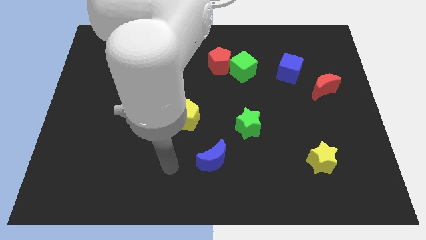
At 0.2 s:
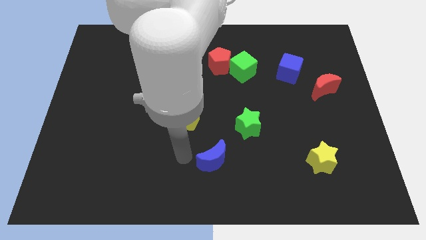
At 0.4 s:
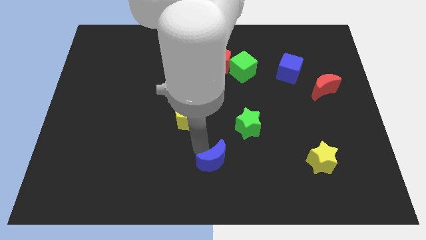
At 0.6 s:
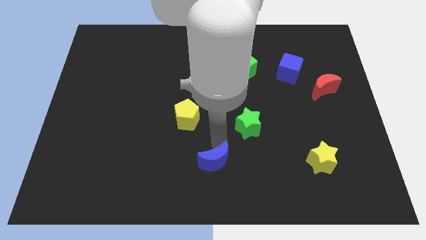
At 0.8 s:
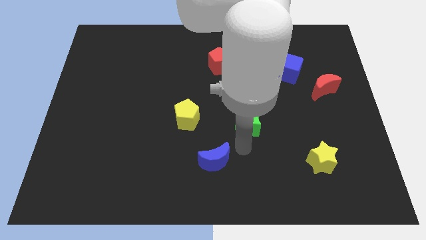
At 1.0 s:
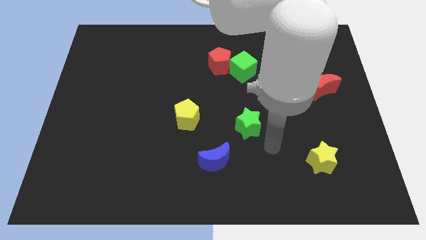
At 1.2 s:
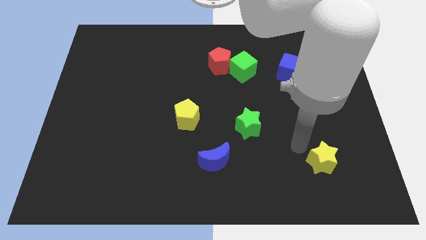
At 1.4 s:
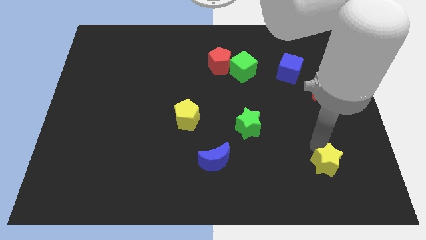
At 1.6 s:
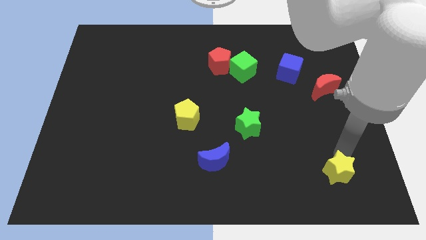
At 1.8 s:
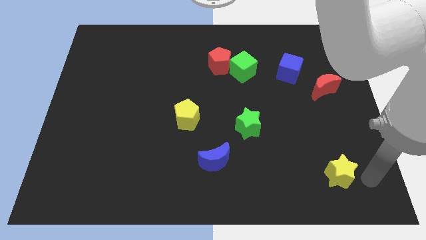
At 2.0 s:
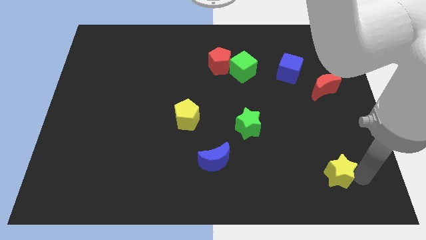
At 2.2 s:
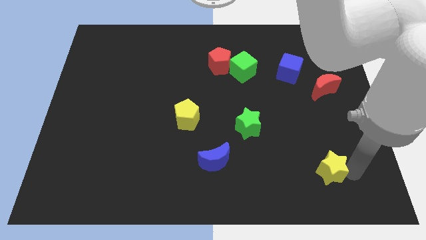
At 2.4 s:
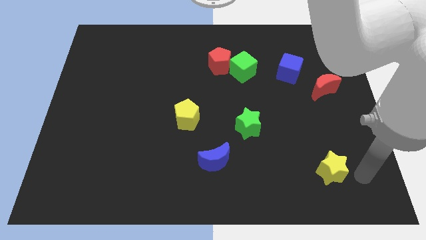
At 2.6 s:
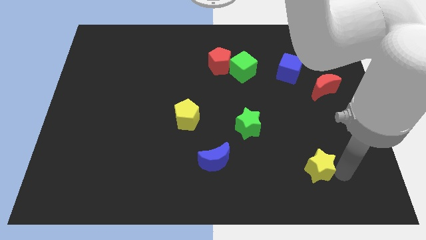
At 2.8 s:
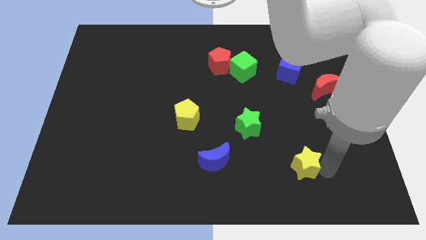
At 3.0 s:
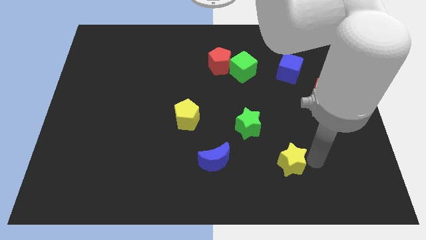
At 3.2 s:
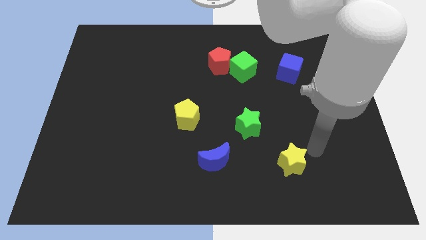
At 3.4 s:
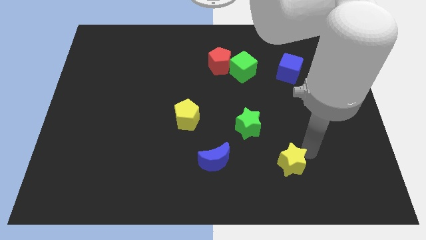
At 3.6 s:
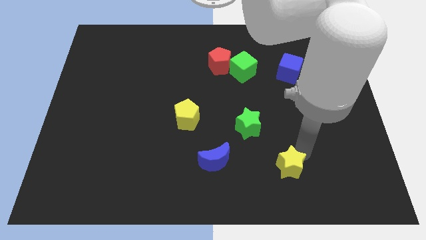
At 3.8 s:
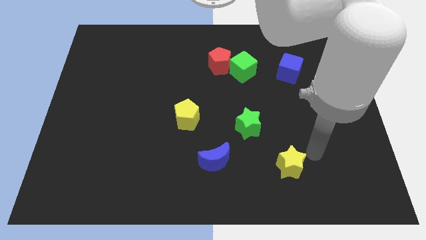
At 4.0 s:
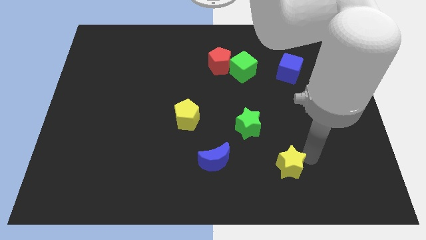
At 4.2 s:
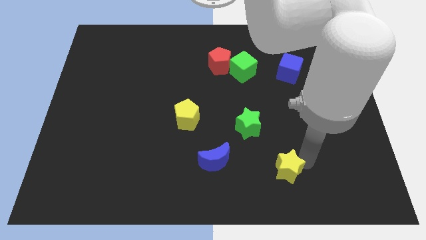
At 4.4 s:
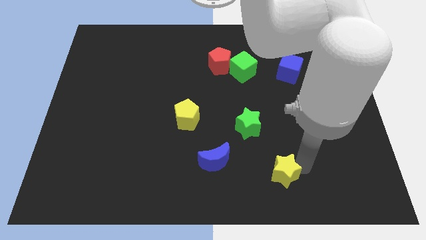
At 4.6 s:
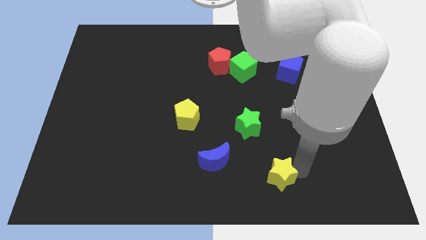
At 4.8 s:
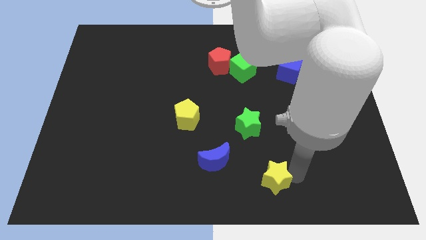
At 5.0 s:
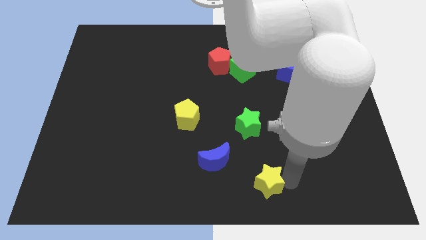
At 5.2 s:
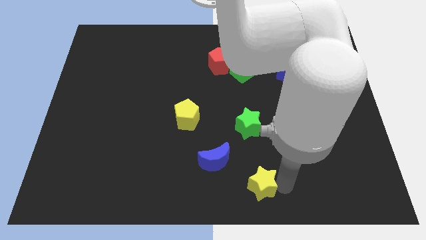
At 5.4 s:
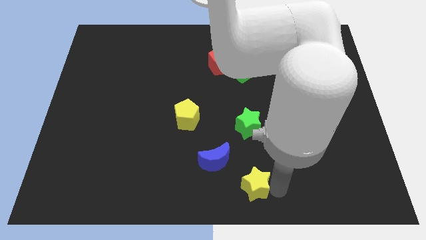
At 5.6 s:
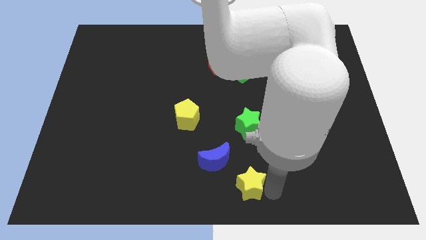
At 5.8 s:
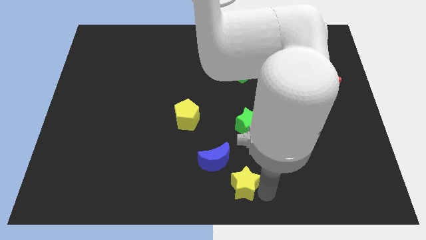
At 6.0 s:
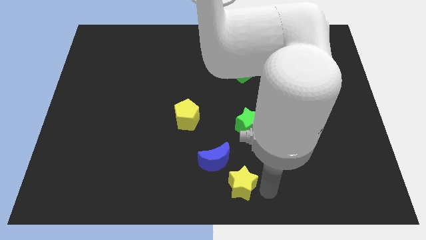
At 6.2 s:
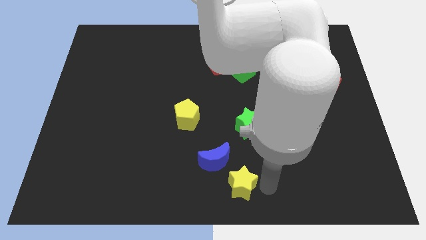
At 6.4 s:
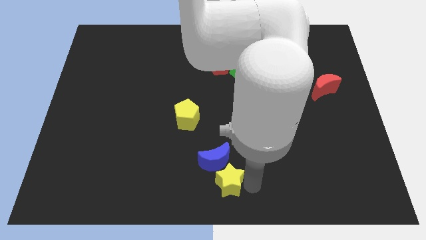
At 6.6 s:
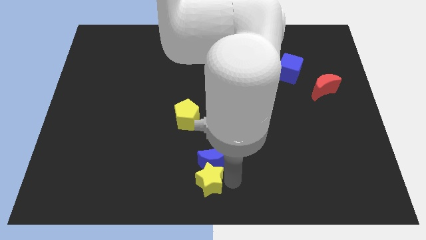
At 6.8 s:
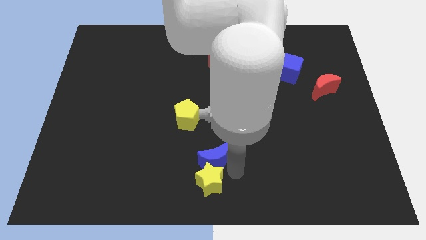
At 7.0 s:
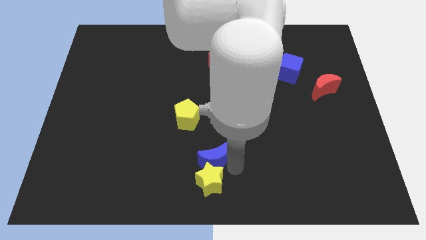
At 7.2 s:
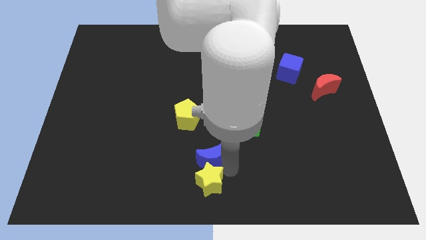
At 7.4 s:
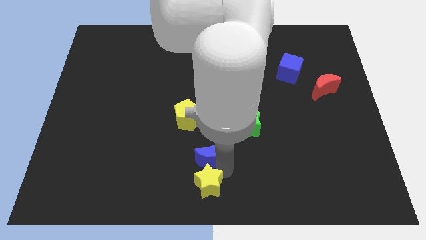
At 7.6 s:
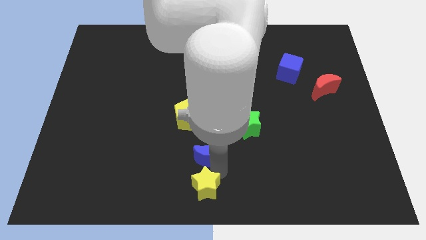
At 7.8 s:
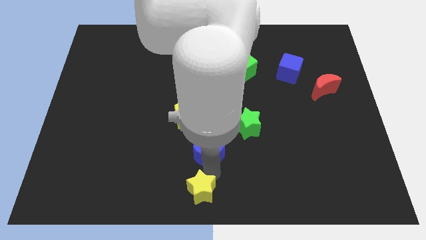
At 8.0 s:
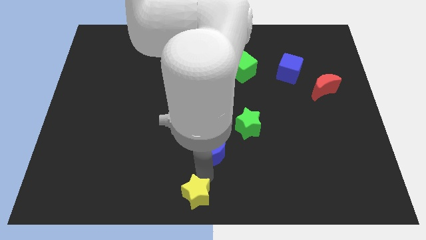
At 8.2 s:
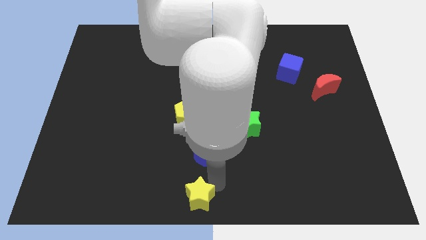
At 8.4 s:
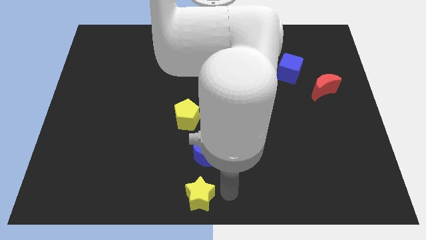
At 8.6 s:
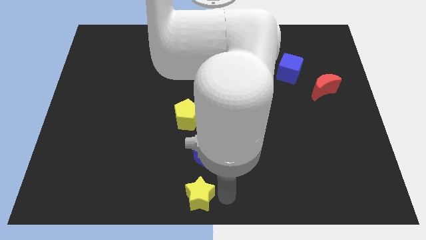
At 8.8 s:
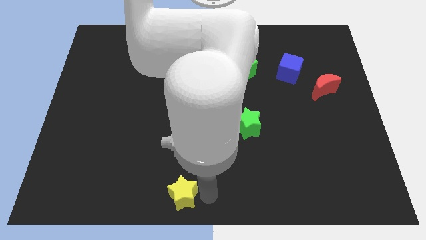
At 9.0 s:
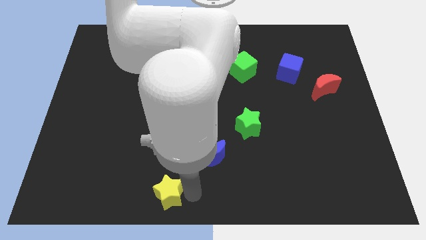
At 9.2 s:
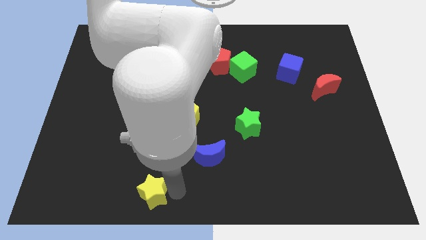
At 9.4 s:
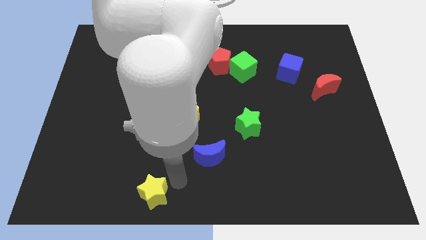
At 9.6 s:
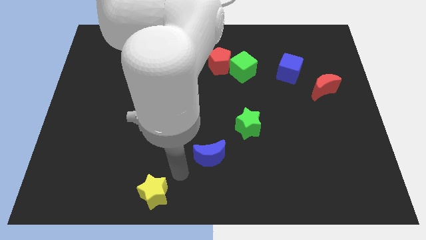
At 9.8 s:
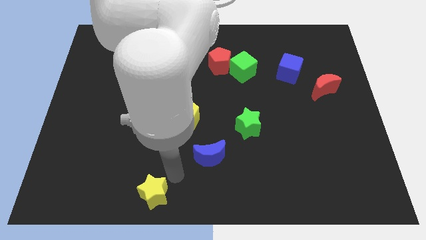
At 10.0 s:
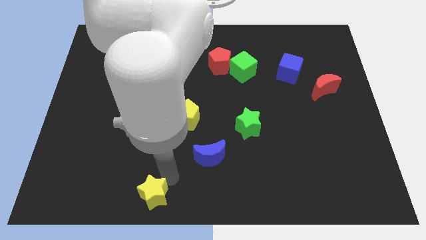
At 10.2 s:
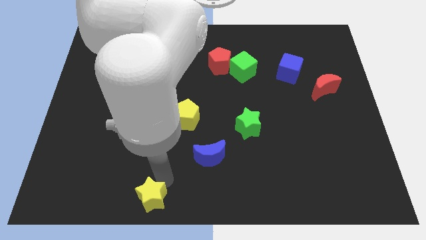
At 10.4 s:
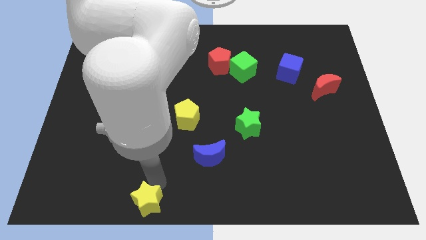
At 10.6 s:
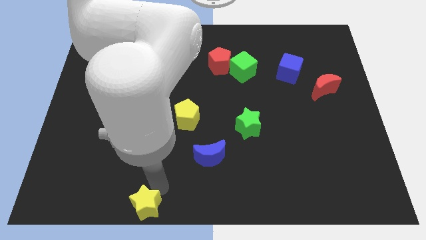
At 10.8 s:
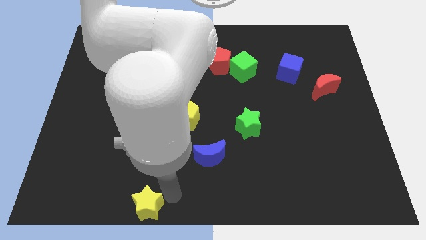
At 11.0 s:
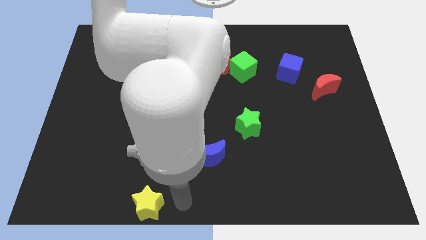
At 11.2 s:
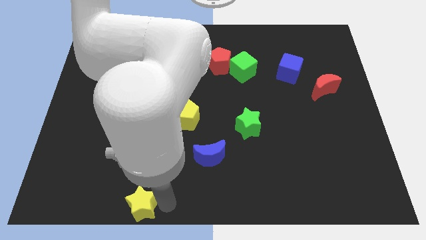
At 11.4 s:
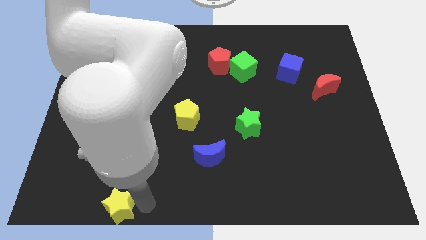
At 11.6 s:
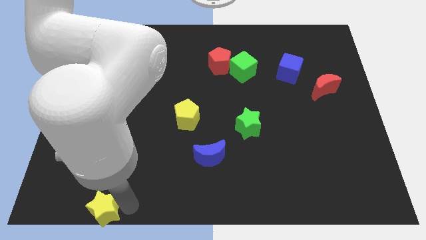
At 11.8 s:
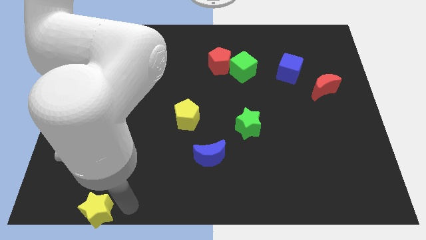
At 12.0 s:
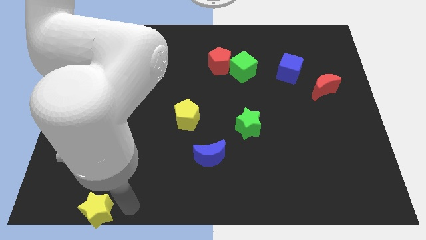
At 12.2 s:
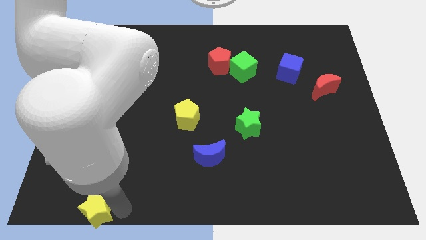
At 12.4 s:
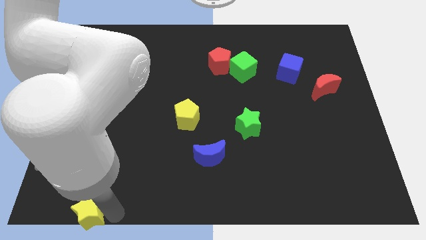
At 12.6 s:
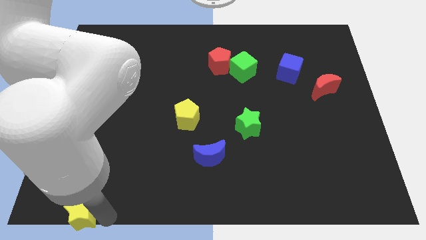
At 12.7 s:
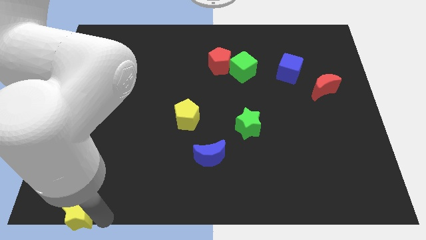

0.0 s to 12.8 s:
push the yellow star to the bottom left
